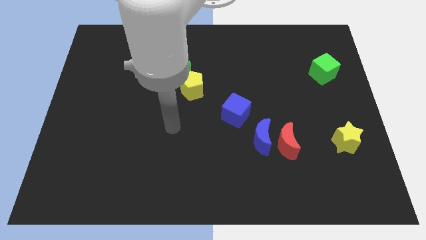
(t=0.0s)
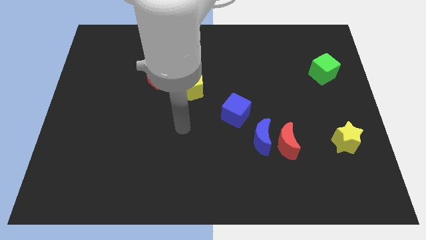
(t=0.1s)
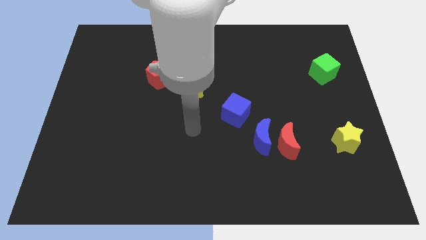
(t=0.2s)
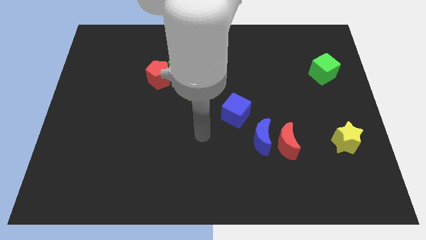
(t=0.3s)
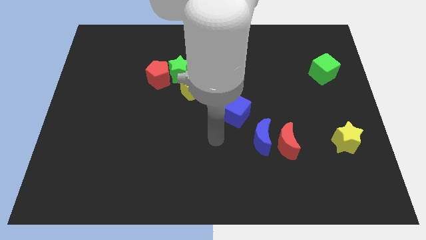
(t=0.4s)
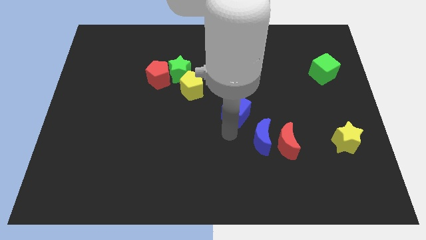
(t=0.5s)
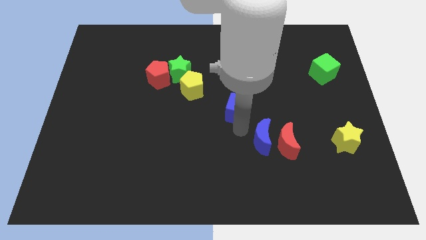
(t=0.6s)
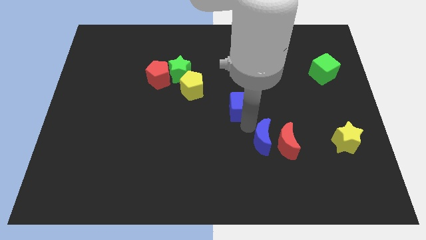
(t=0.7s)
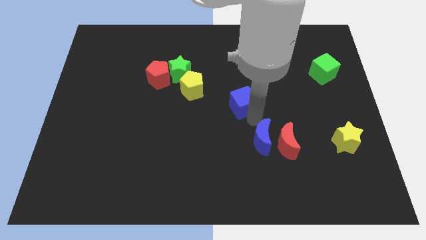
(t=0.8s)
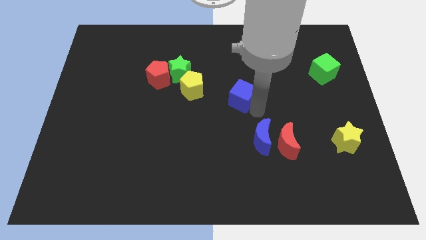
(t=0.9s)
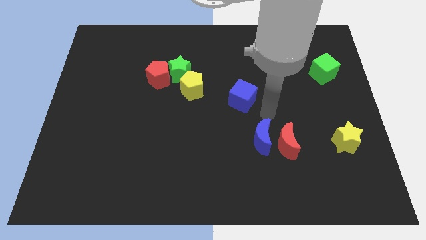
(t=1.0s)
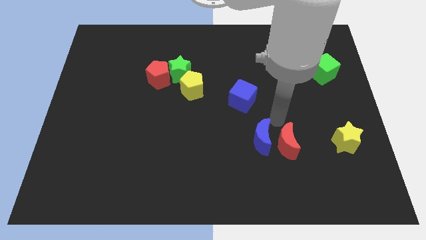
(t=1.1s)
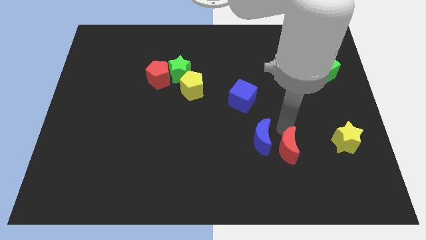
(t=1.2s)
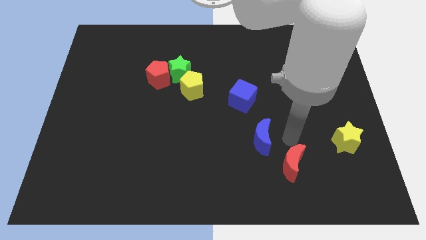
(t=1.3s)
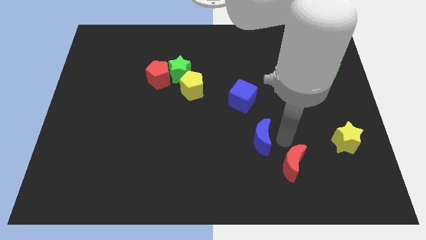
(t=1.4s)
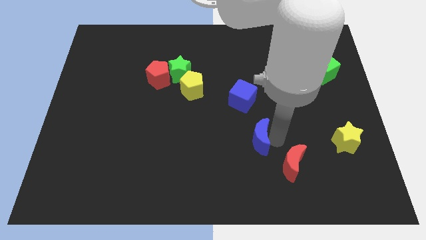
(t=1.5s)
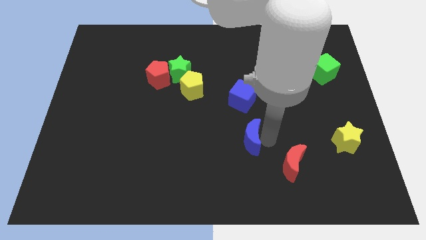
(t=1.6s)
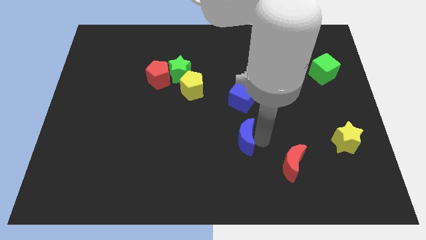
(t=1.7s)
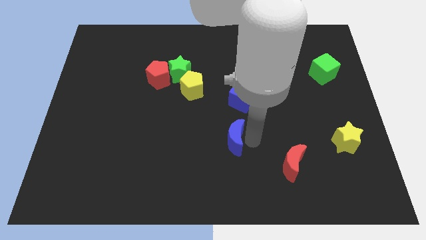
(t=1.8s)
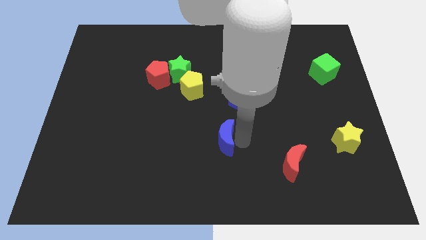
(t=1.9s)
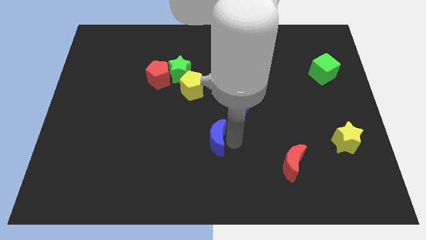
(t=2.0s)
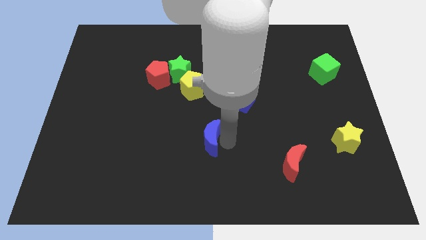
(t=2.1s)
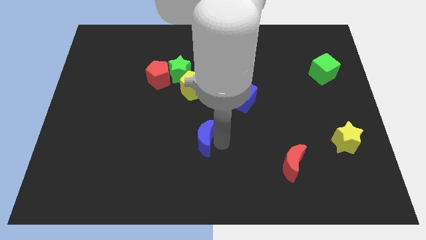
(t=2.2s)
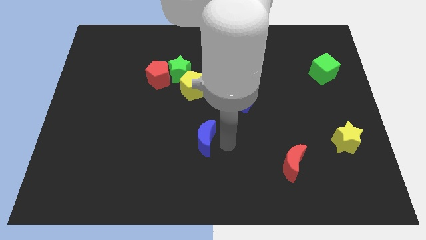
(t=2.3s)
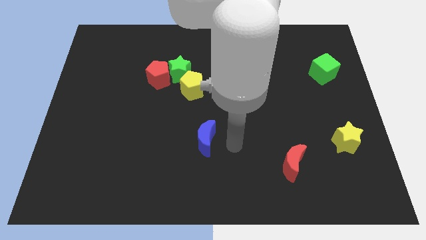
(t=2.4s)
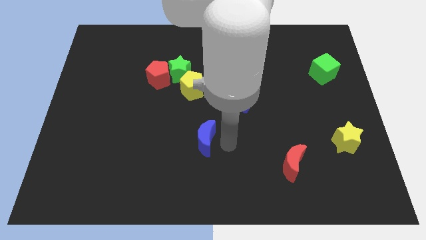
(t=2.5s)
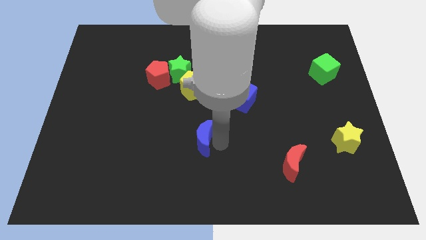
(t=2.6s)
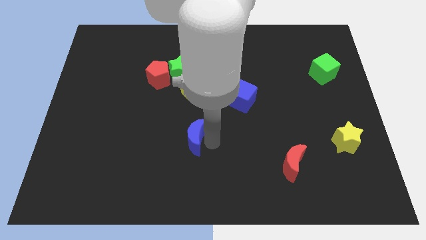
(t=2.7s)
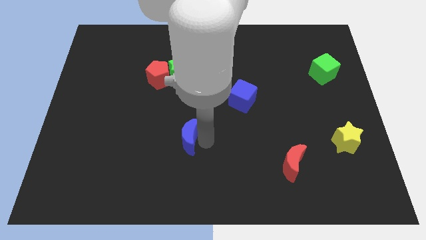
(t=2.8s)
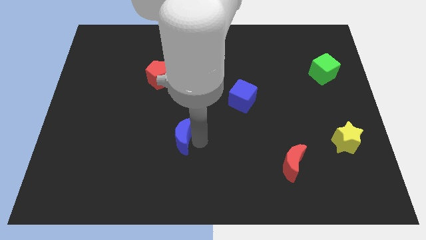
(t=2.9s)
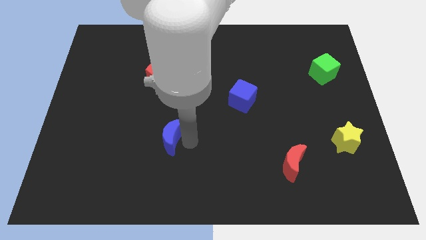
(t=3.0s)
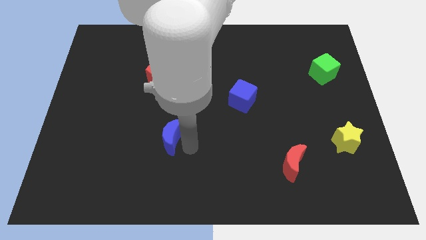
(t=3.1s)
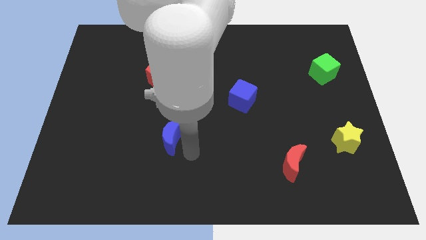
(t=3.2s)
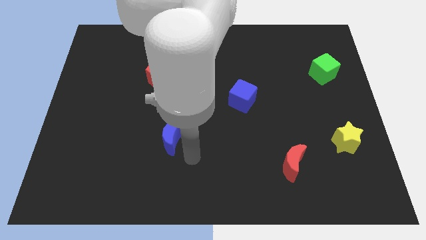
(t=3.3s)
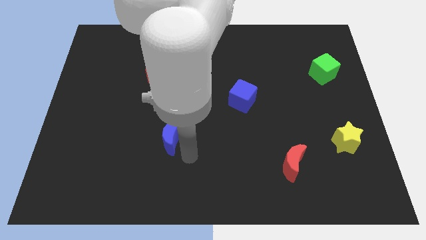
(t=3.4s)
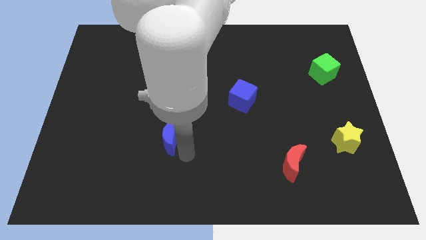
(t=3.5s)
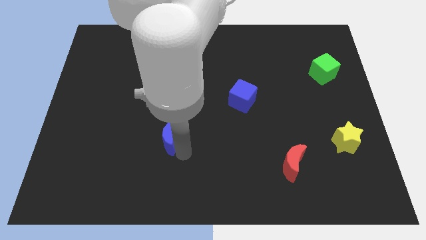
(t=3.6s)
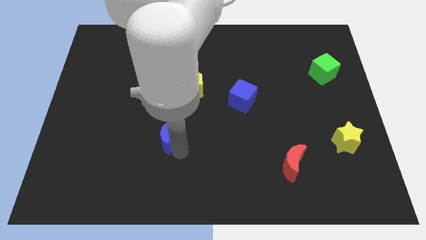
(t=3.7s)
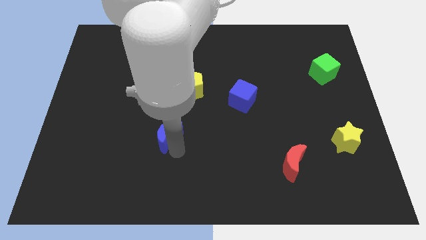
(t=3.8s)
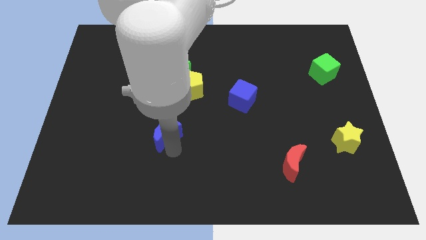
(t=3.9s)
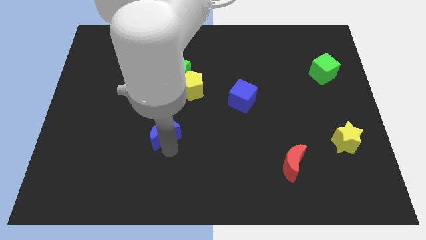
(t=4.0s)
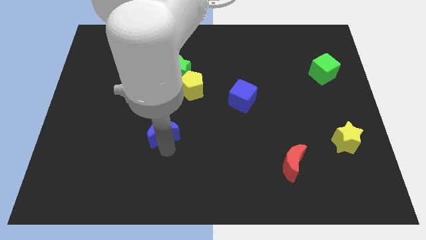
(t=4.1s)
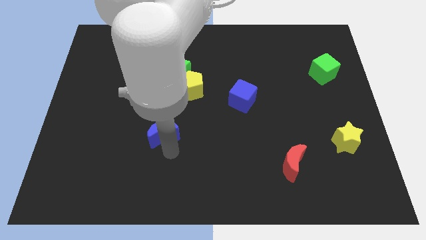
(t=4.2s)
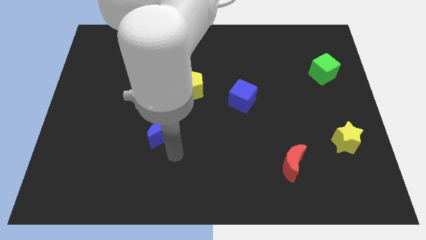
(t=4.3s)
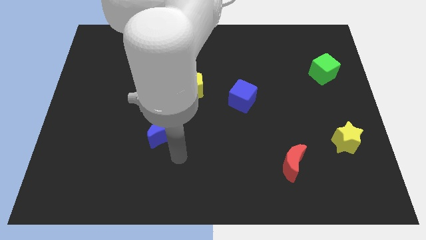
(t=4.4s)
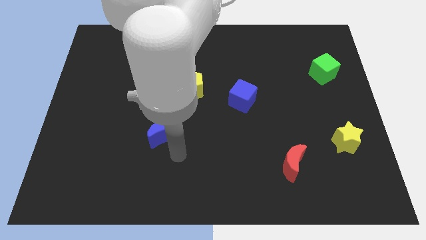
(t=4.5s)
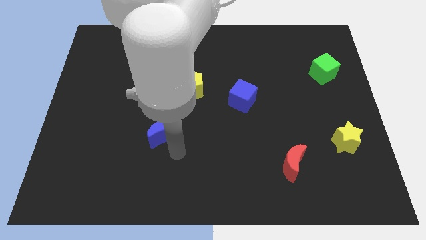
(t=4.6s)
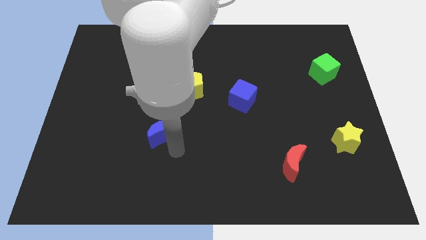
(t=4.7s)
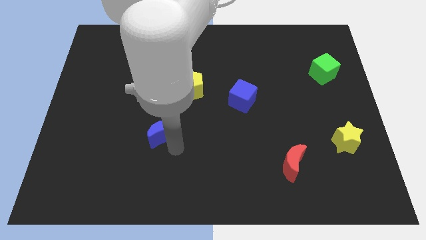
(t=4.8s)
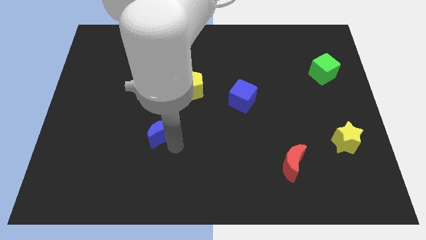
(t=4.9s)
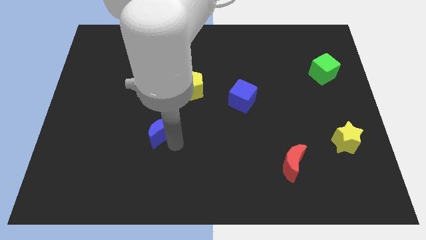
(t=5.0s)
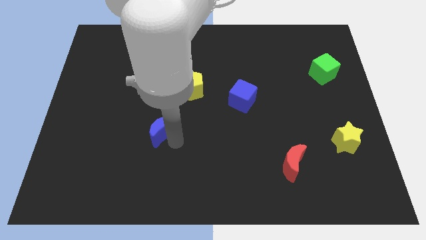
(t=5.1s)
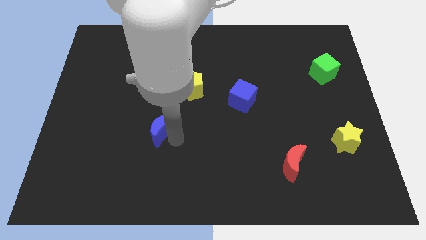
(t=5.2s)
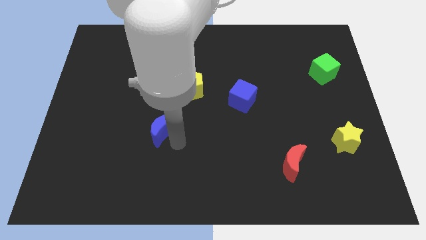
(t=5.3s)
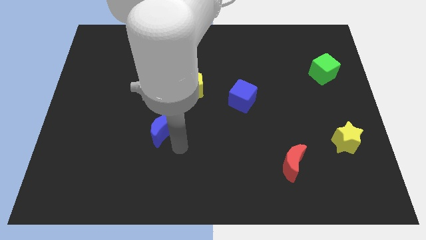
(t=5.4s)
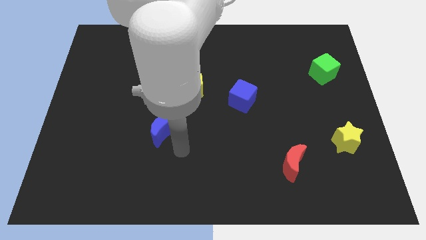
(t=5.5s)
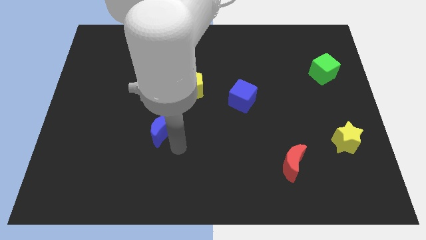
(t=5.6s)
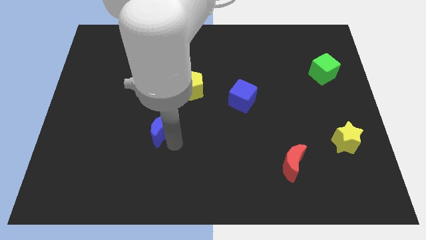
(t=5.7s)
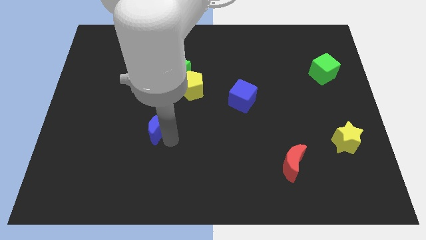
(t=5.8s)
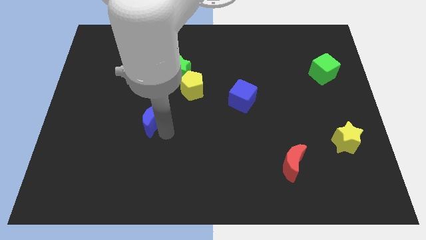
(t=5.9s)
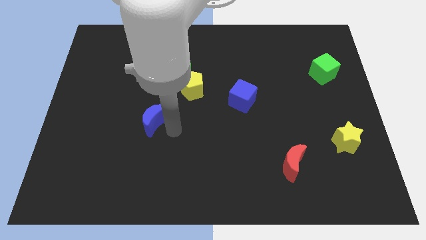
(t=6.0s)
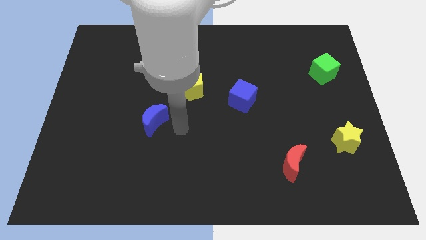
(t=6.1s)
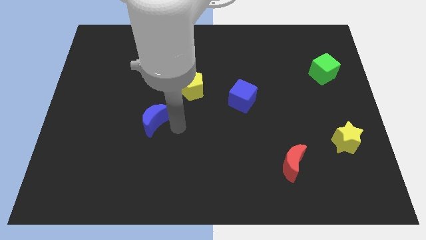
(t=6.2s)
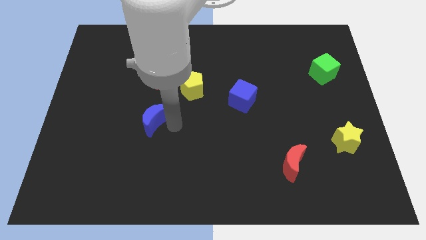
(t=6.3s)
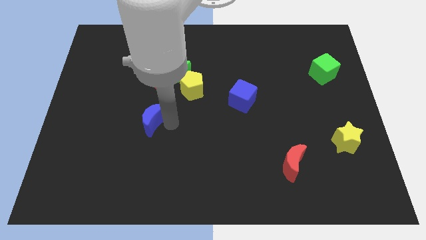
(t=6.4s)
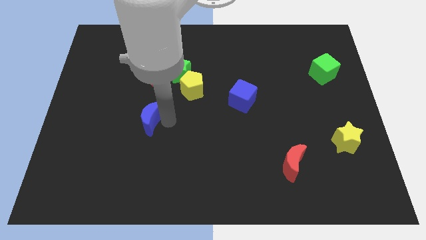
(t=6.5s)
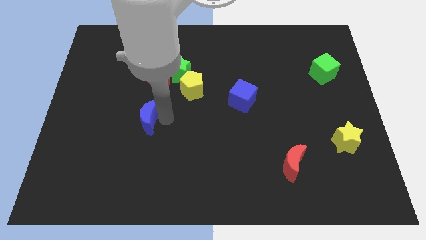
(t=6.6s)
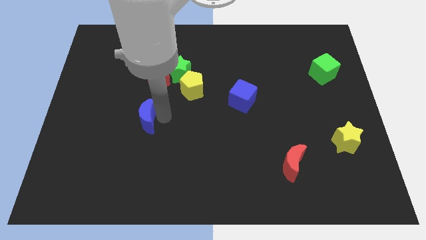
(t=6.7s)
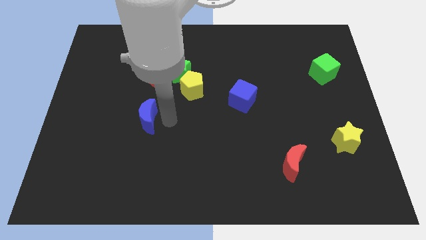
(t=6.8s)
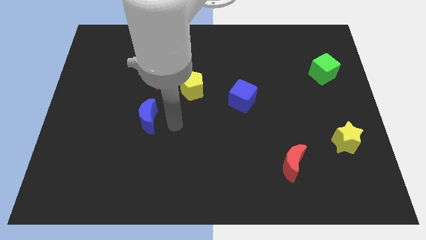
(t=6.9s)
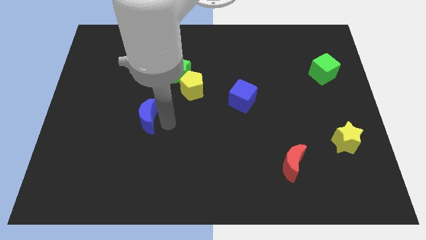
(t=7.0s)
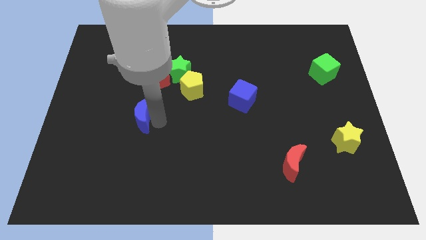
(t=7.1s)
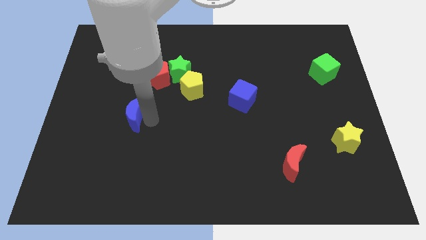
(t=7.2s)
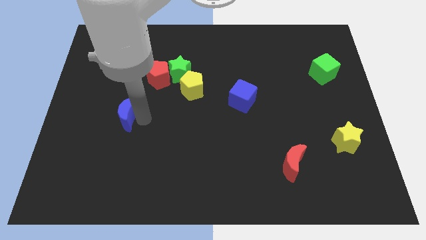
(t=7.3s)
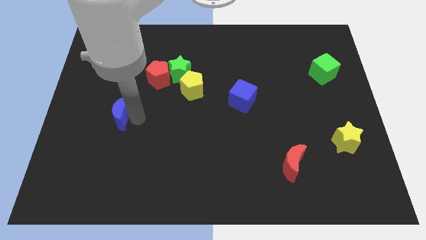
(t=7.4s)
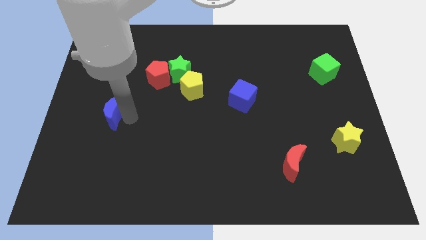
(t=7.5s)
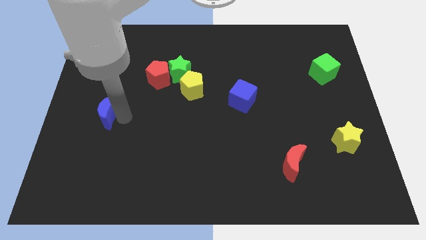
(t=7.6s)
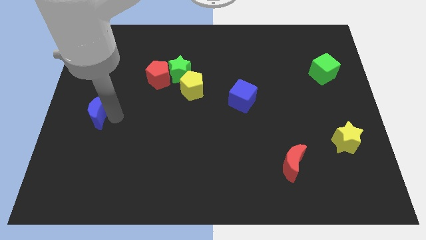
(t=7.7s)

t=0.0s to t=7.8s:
move the blue moon to the center left
